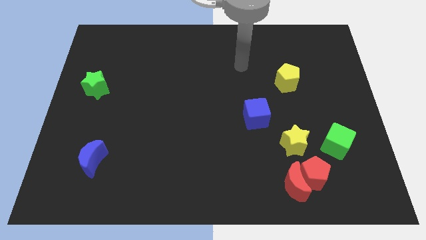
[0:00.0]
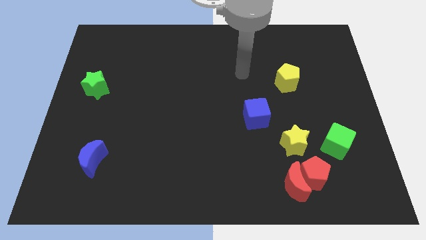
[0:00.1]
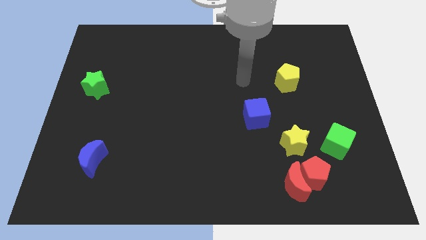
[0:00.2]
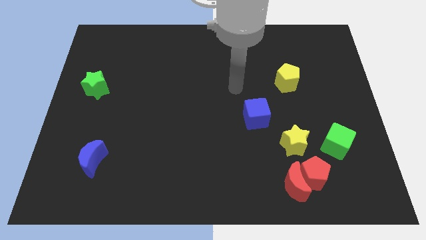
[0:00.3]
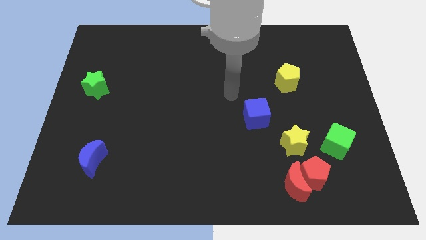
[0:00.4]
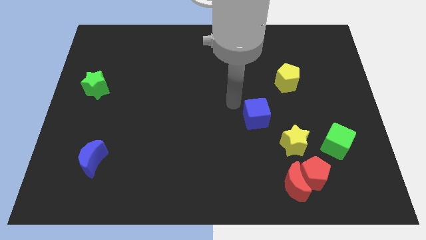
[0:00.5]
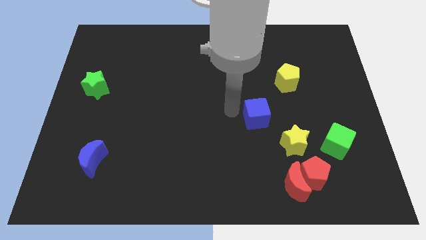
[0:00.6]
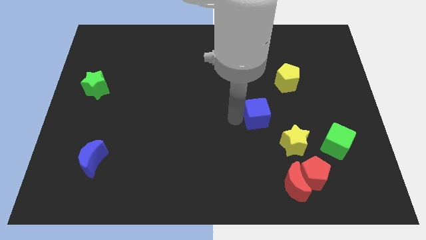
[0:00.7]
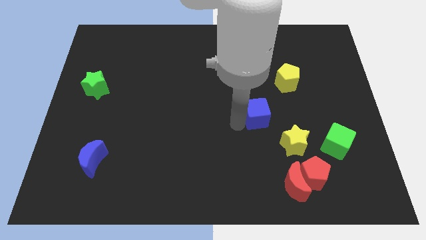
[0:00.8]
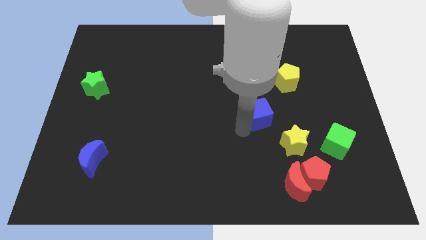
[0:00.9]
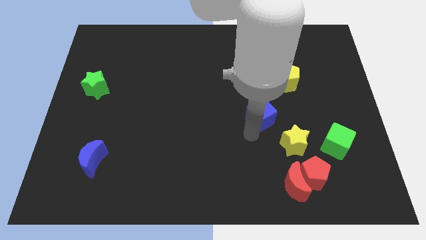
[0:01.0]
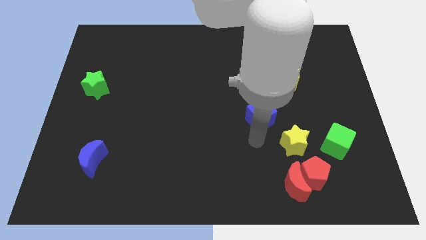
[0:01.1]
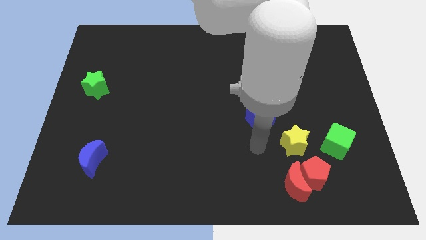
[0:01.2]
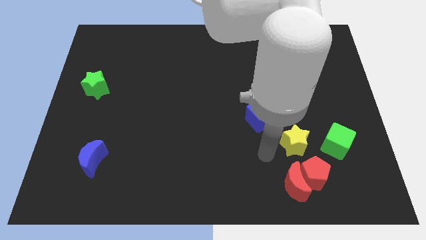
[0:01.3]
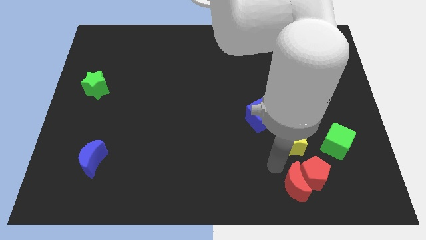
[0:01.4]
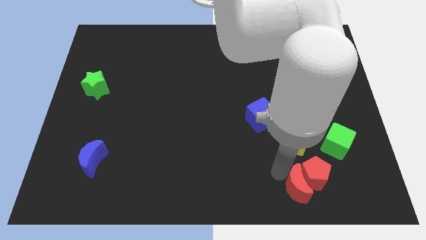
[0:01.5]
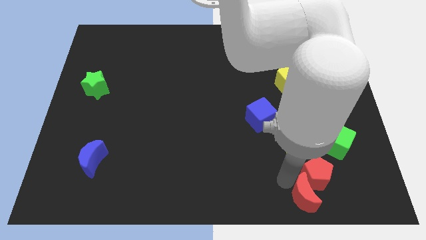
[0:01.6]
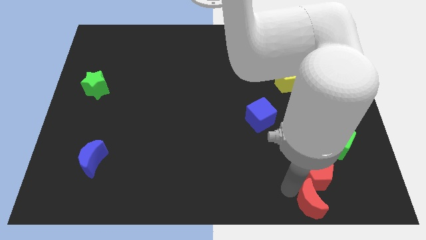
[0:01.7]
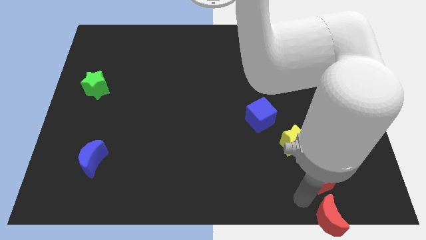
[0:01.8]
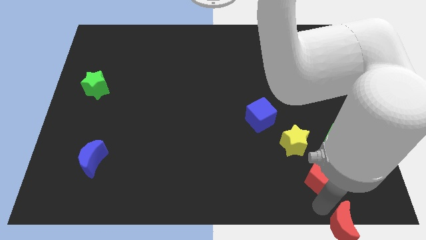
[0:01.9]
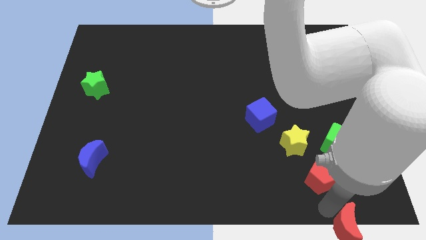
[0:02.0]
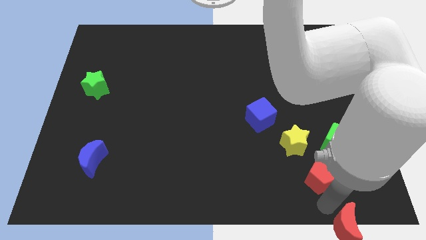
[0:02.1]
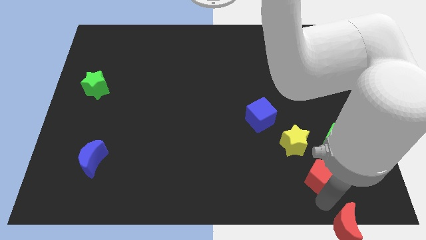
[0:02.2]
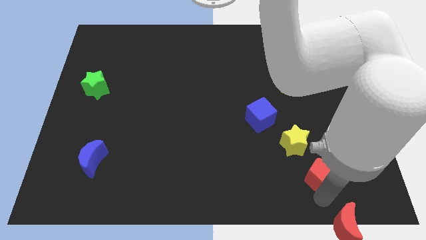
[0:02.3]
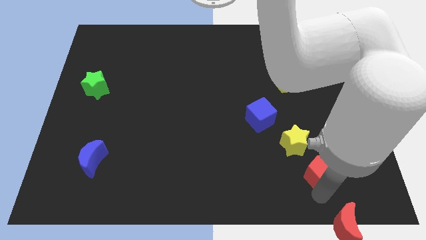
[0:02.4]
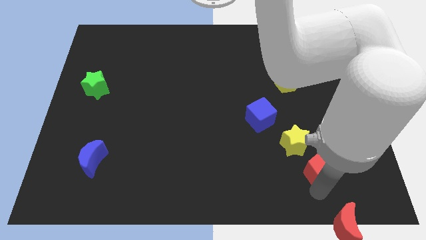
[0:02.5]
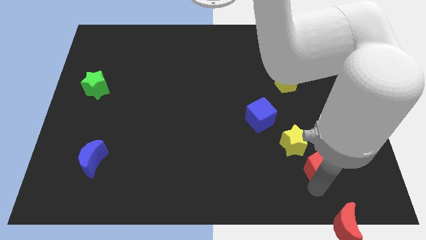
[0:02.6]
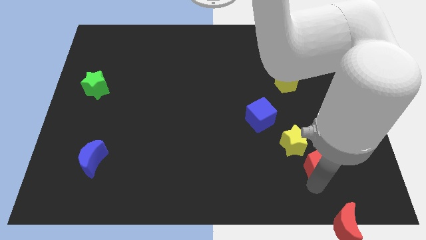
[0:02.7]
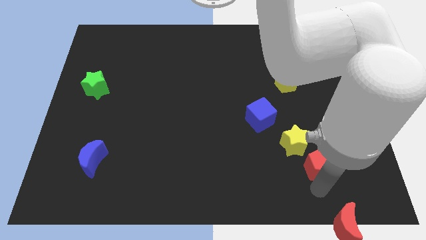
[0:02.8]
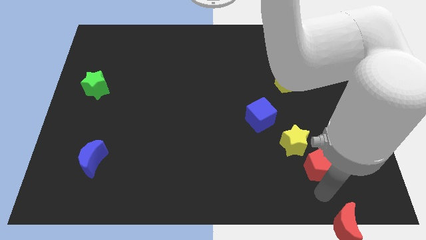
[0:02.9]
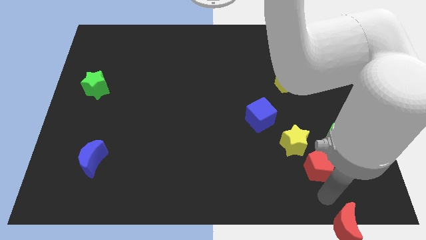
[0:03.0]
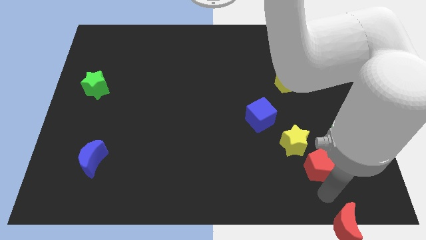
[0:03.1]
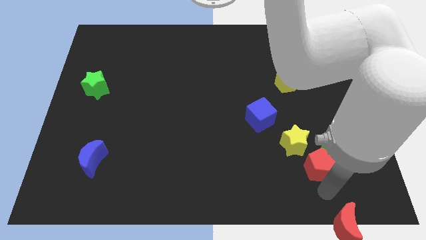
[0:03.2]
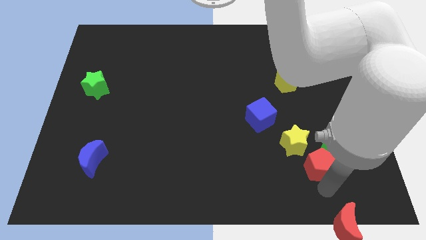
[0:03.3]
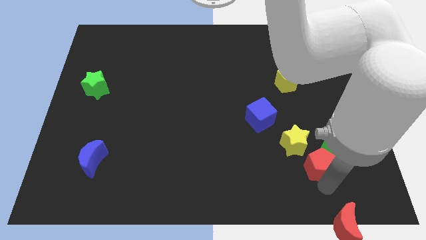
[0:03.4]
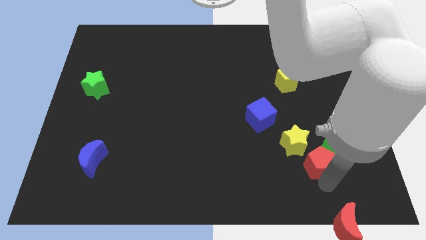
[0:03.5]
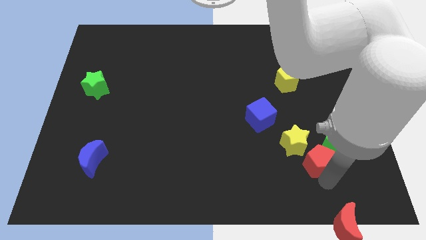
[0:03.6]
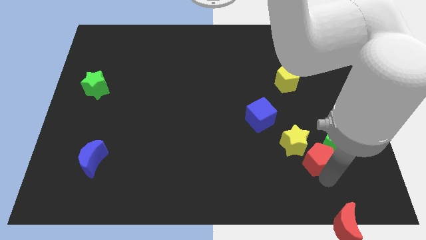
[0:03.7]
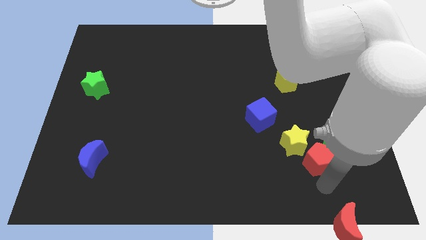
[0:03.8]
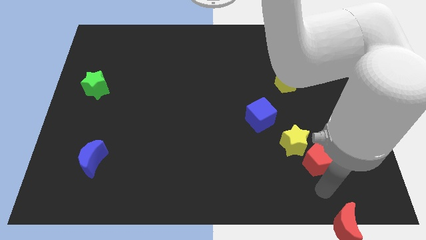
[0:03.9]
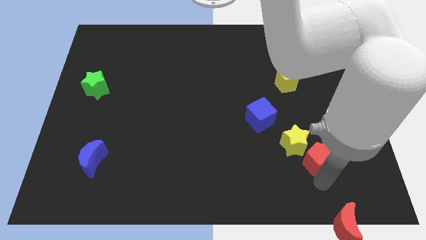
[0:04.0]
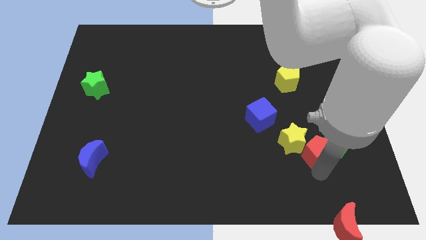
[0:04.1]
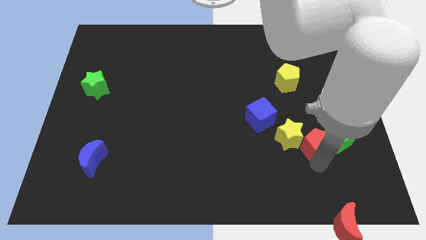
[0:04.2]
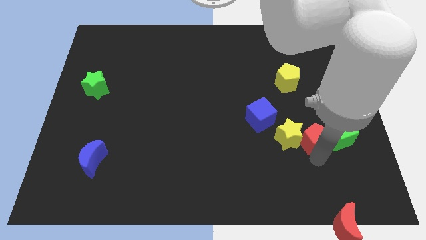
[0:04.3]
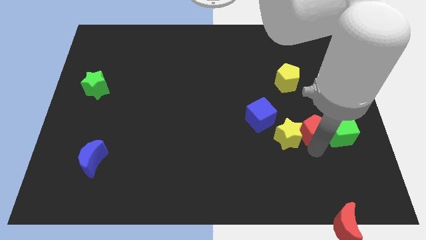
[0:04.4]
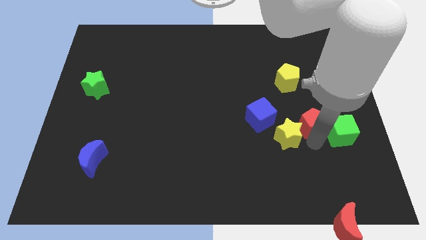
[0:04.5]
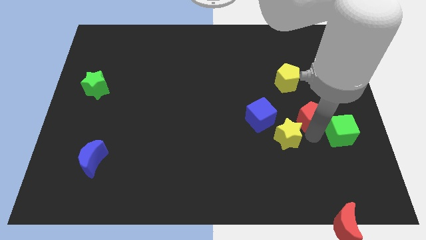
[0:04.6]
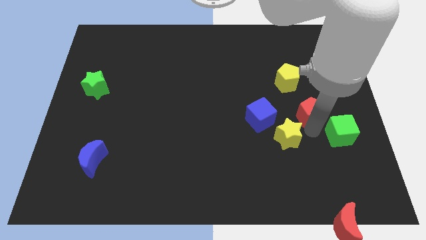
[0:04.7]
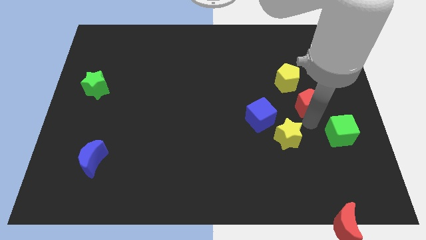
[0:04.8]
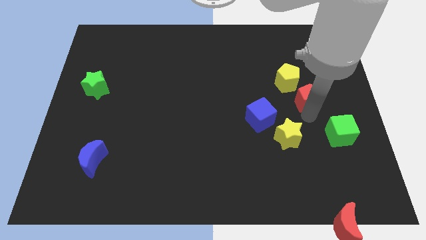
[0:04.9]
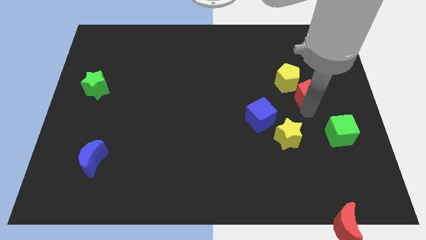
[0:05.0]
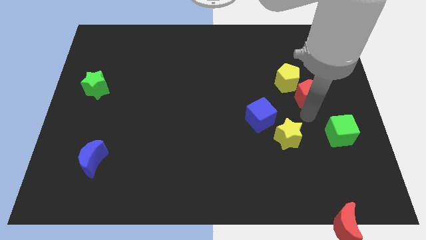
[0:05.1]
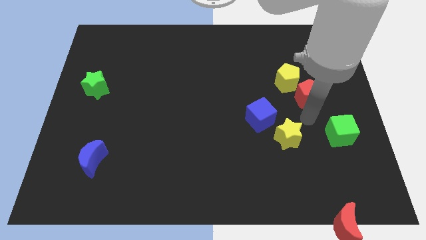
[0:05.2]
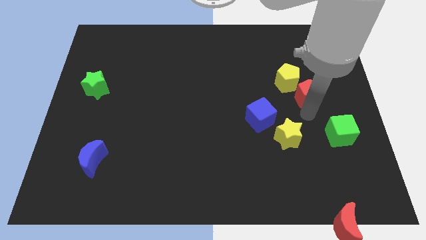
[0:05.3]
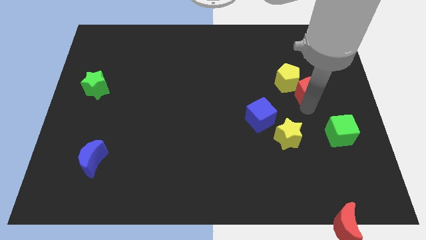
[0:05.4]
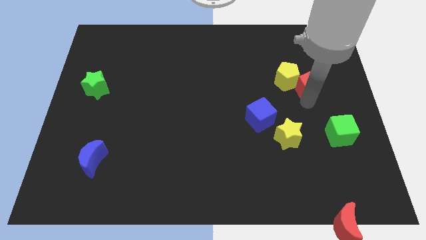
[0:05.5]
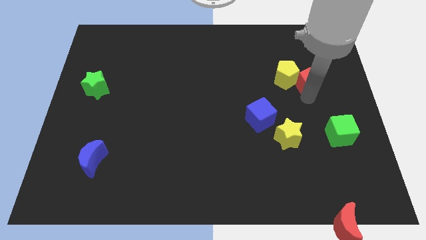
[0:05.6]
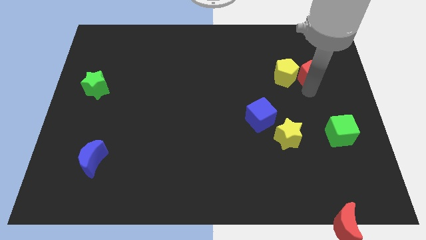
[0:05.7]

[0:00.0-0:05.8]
move the red pentagon diagonally up and to the right of the yellow pentagon

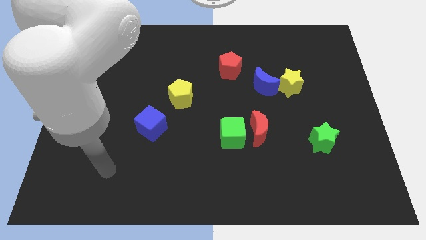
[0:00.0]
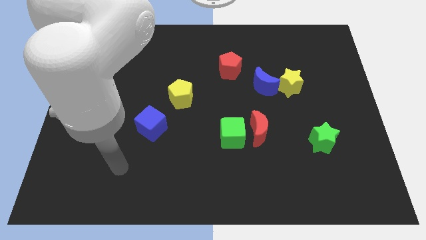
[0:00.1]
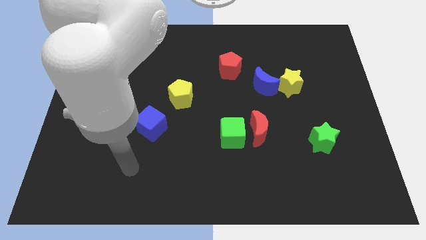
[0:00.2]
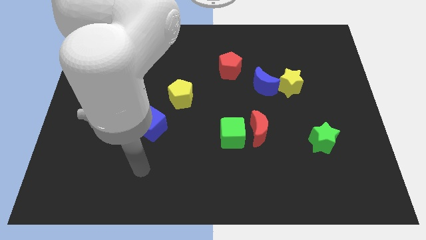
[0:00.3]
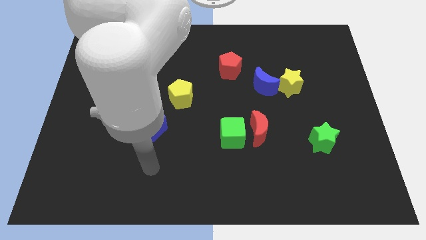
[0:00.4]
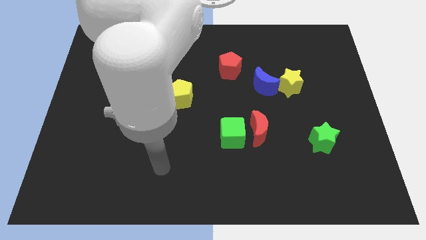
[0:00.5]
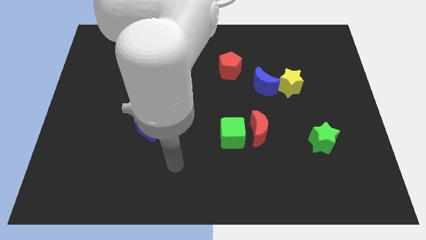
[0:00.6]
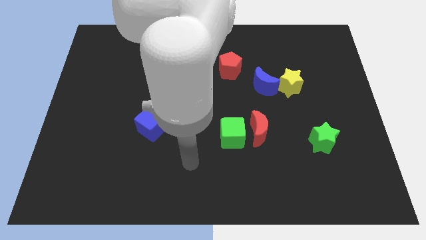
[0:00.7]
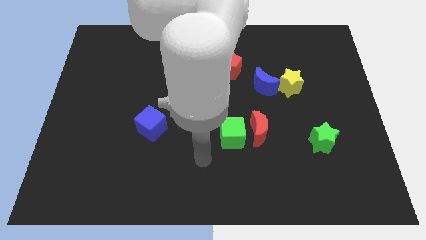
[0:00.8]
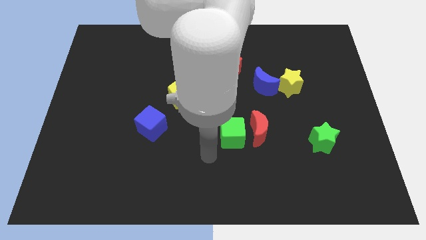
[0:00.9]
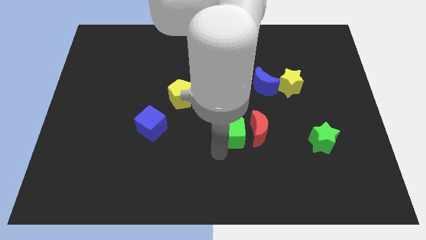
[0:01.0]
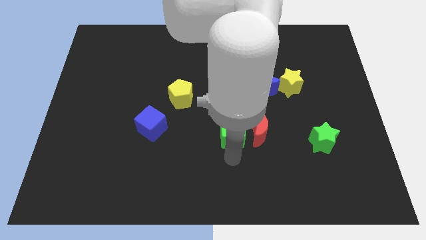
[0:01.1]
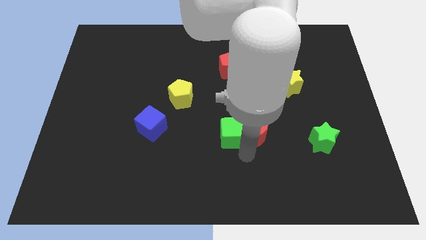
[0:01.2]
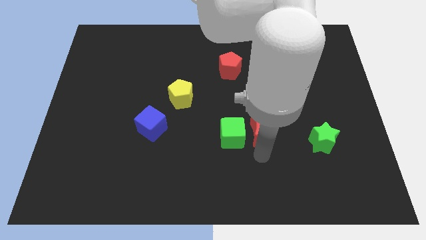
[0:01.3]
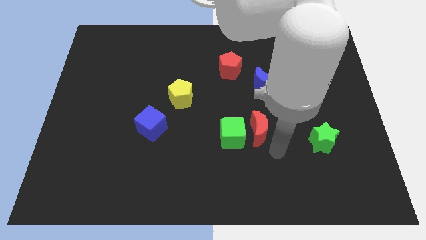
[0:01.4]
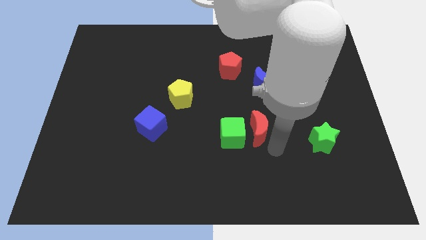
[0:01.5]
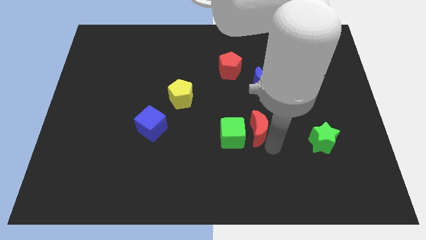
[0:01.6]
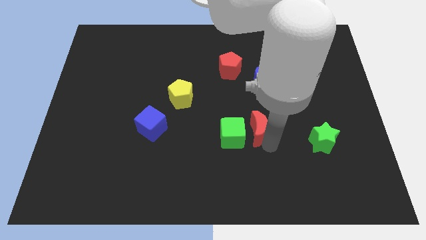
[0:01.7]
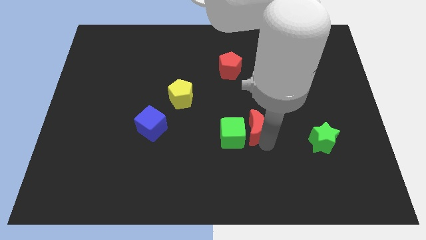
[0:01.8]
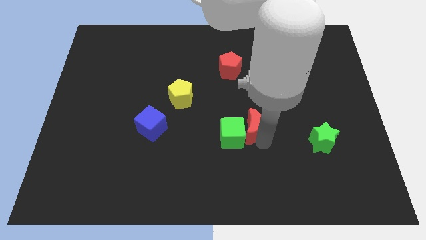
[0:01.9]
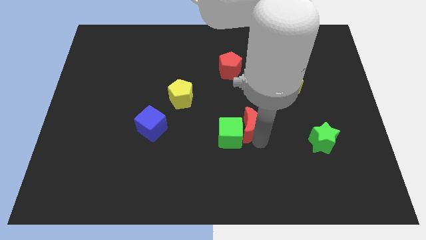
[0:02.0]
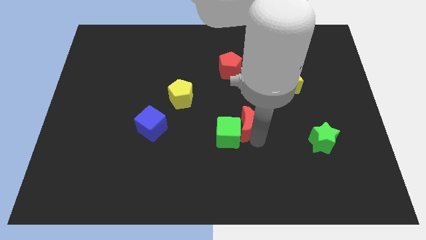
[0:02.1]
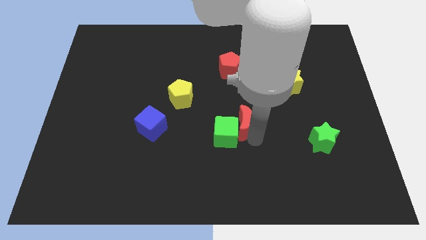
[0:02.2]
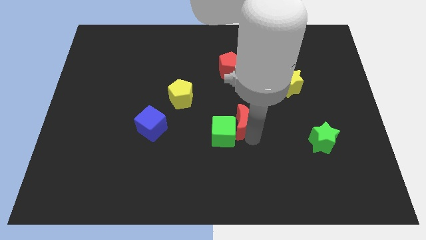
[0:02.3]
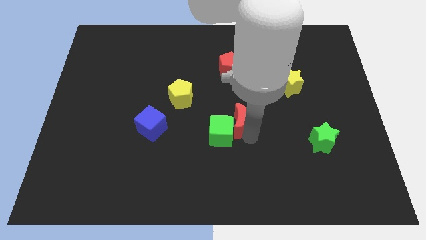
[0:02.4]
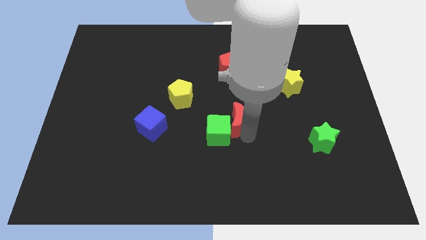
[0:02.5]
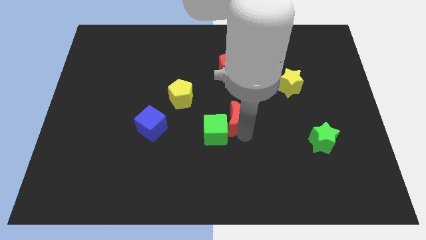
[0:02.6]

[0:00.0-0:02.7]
slide the red moon below the red pentagon
